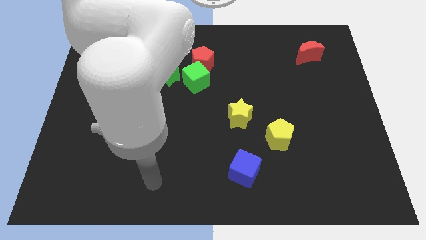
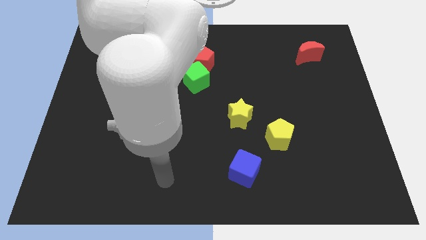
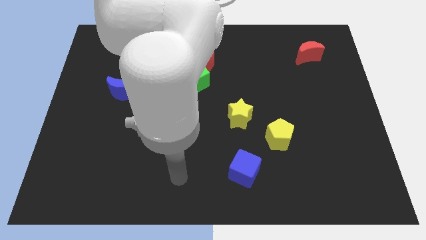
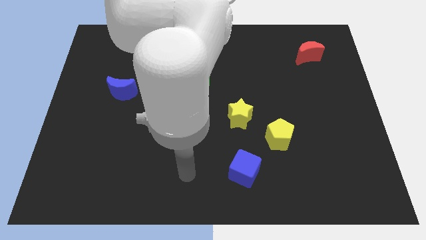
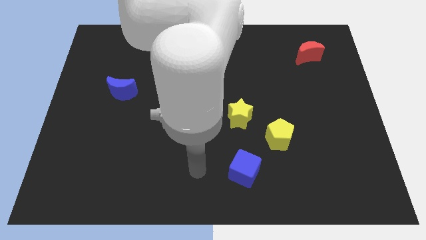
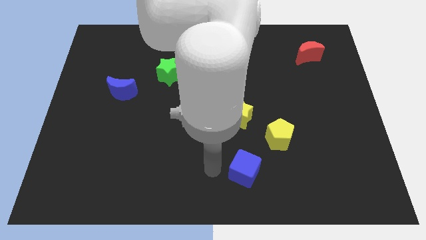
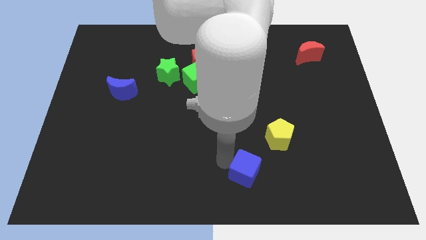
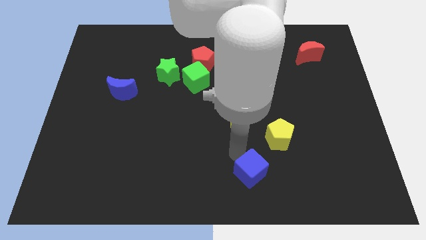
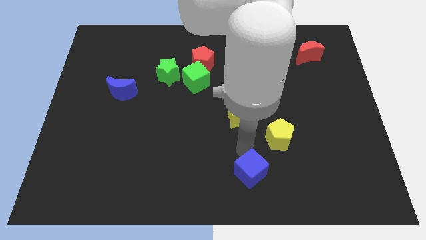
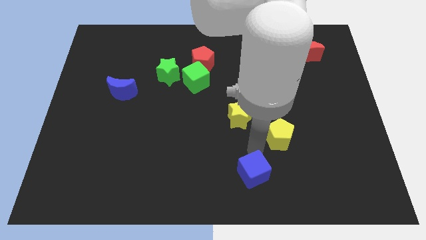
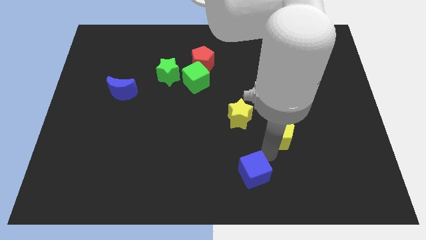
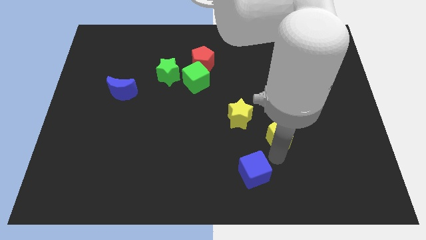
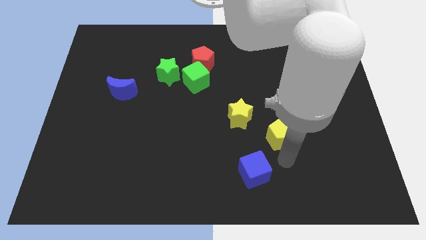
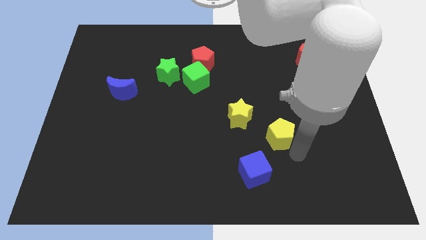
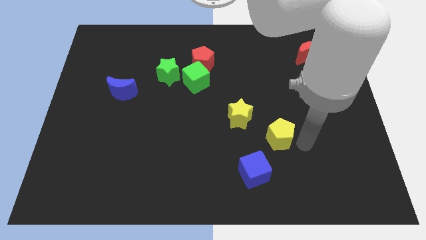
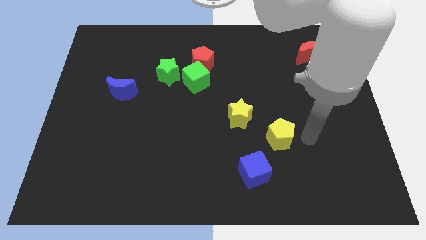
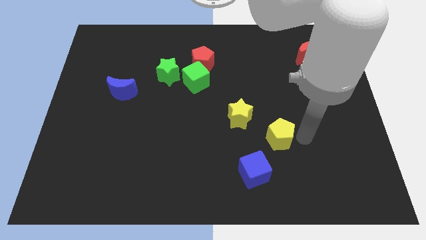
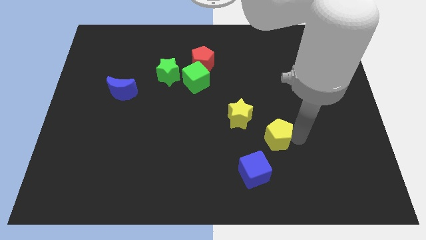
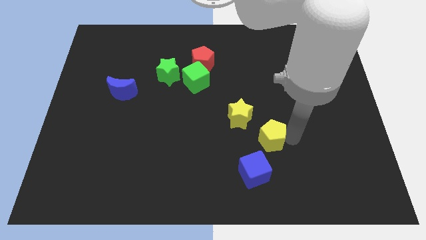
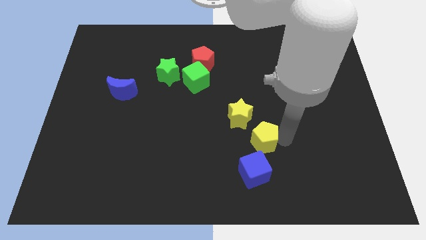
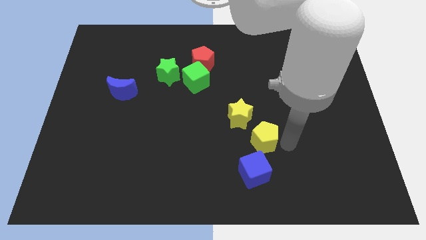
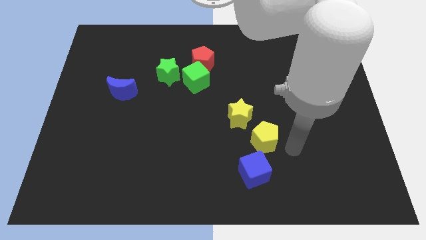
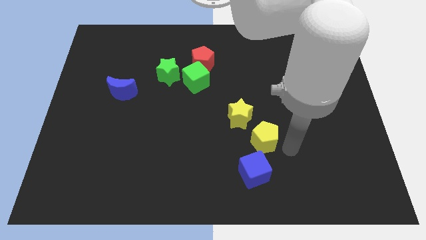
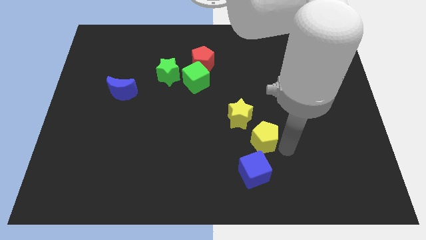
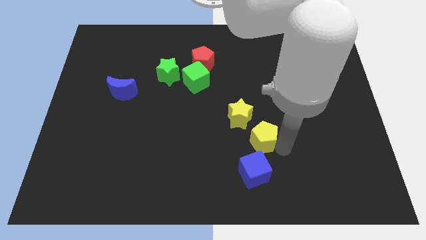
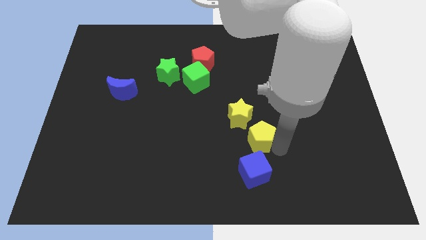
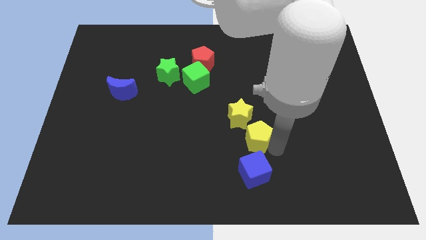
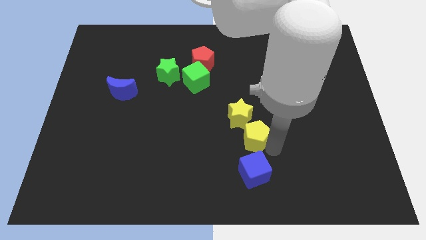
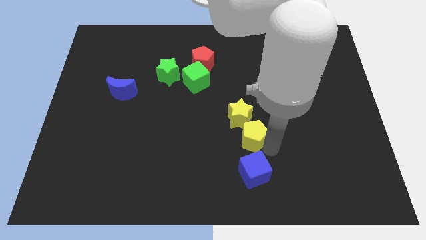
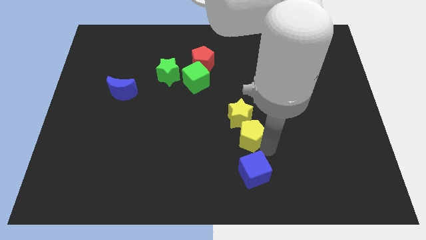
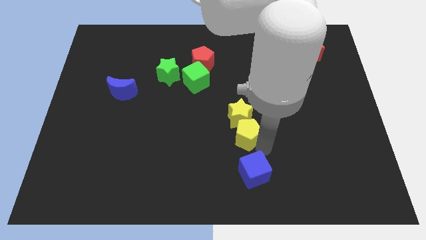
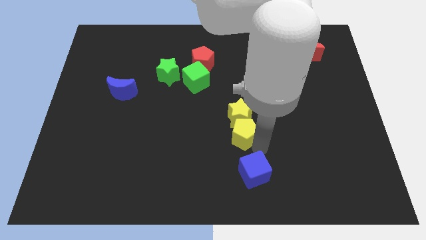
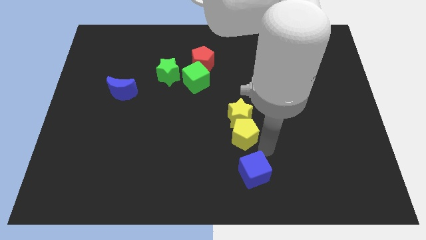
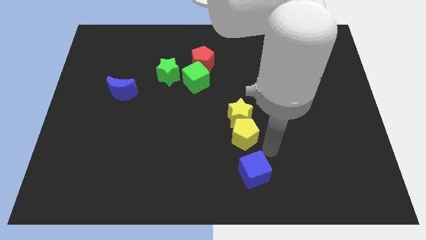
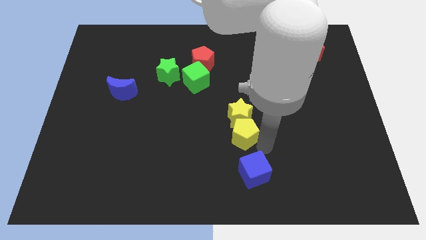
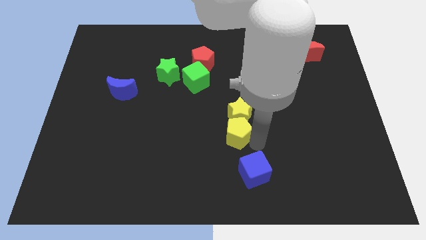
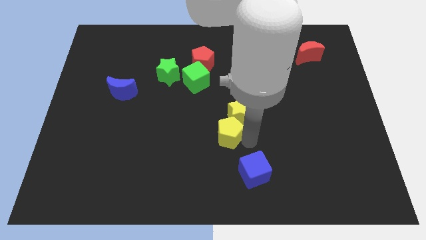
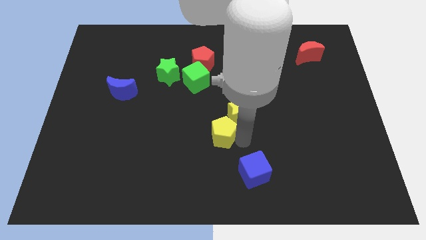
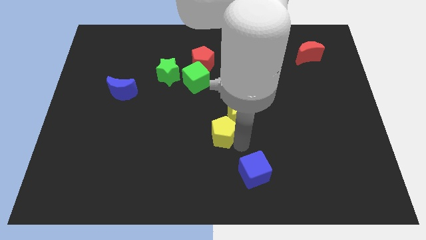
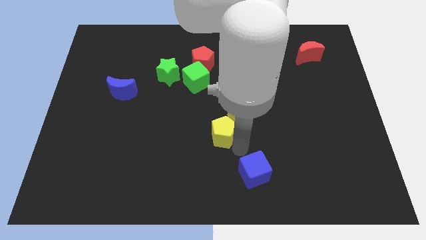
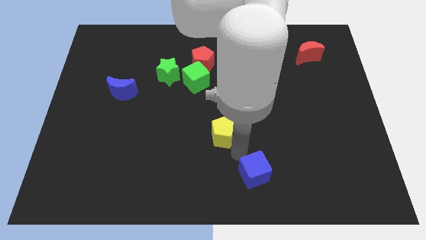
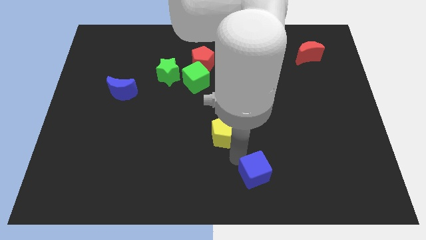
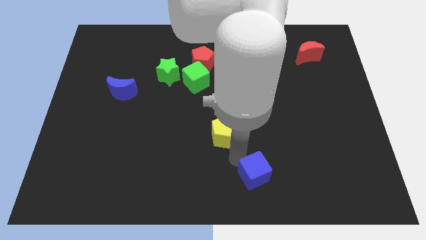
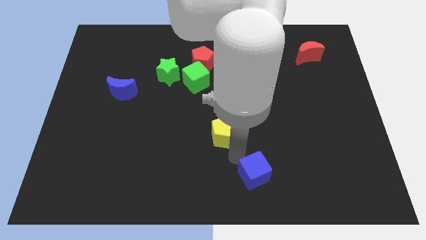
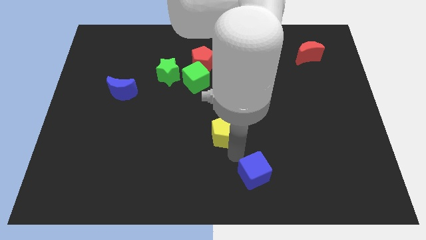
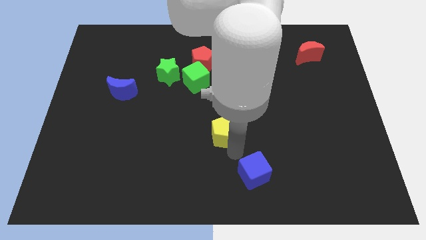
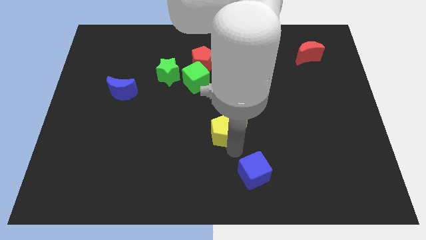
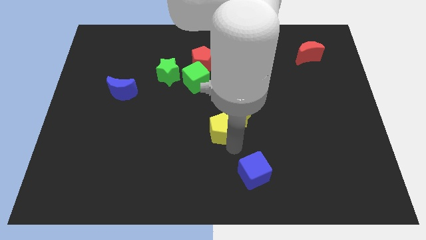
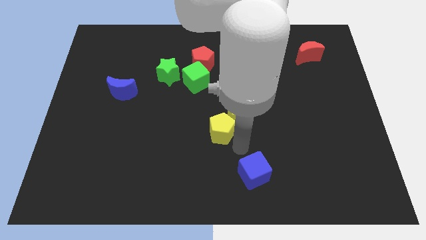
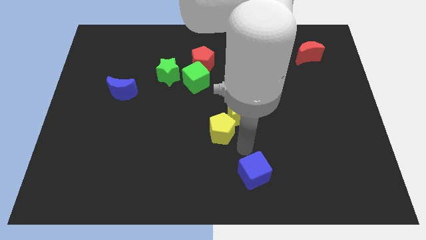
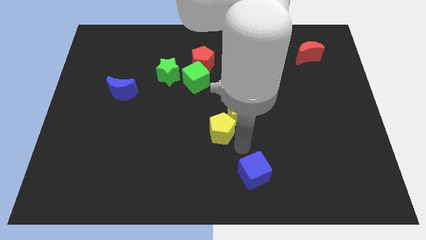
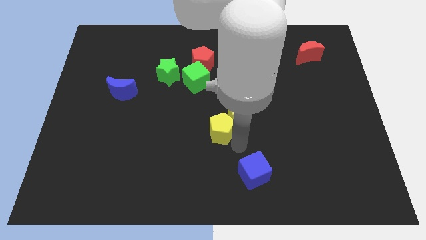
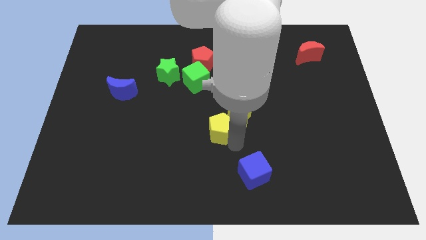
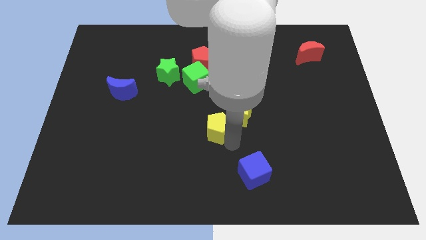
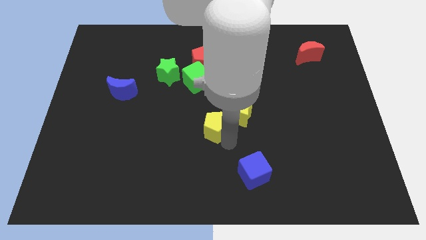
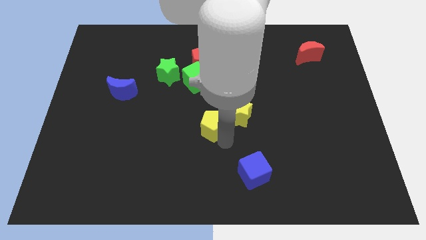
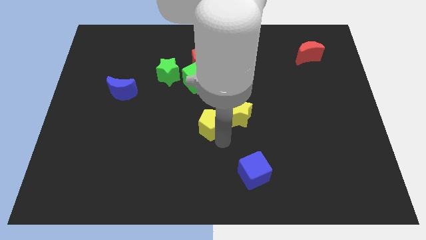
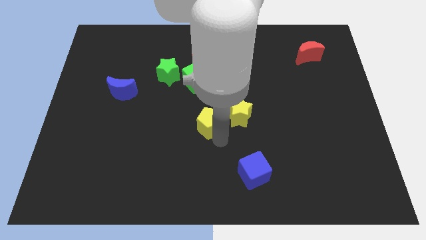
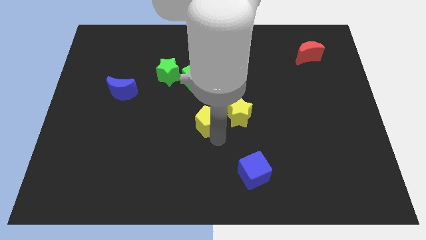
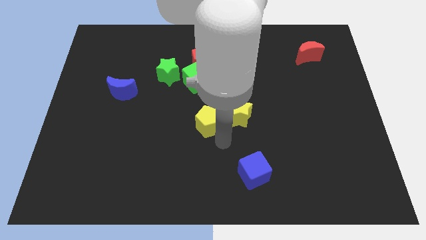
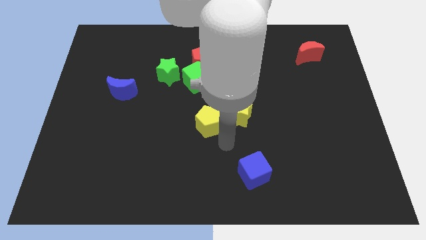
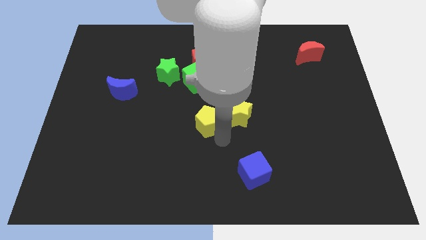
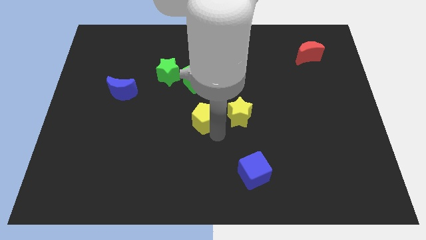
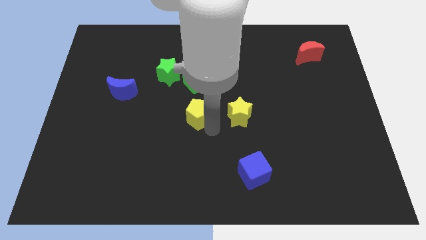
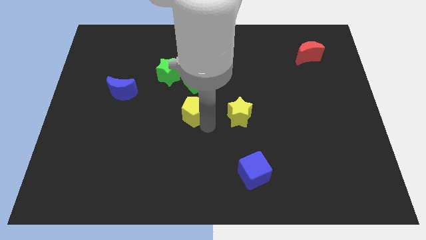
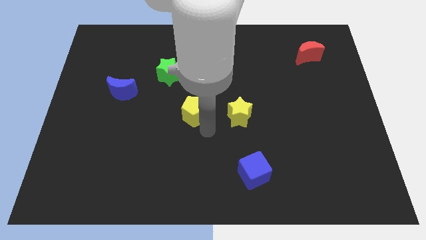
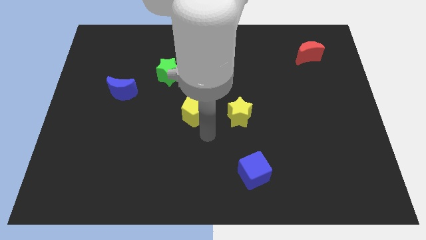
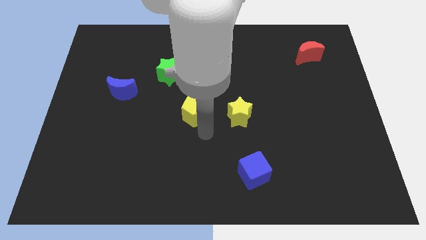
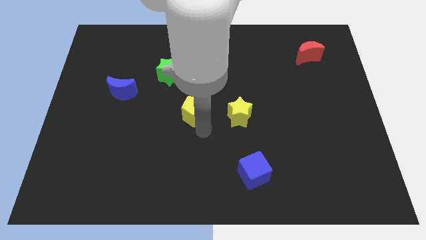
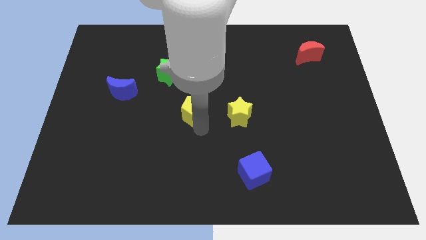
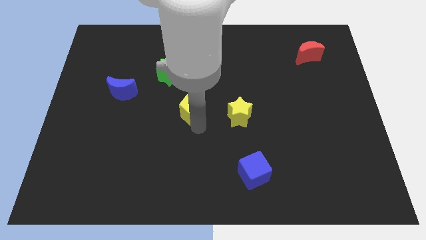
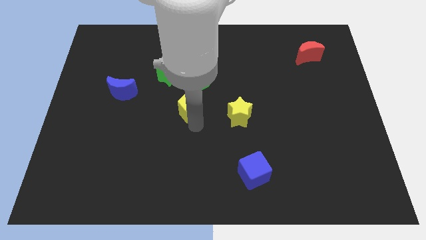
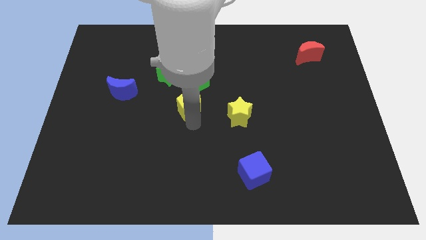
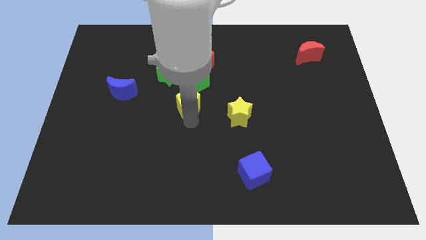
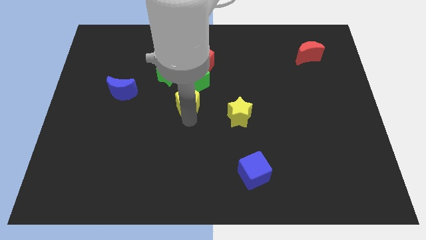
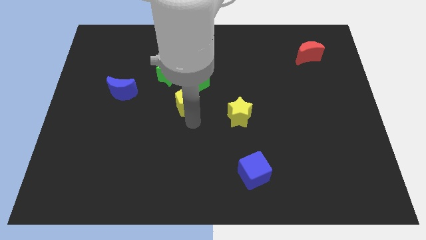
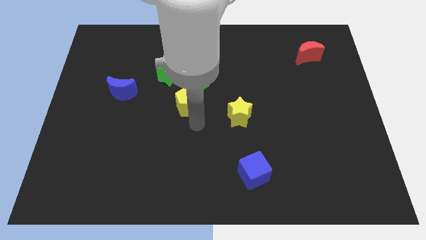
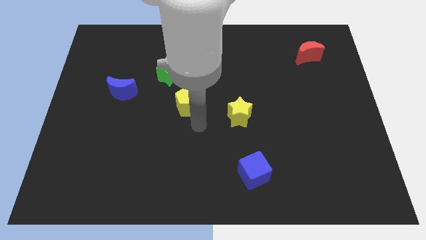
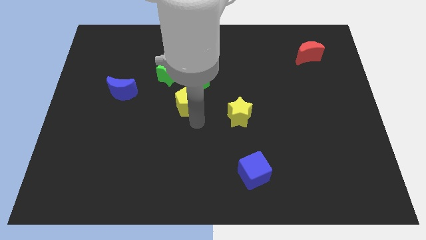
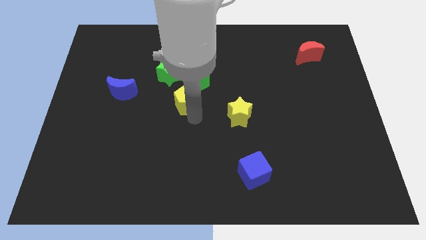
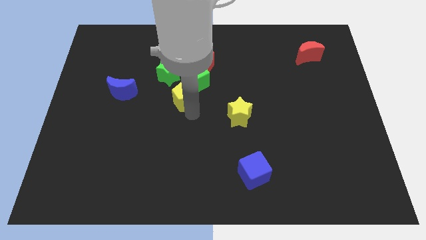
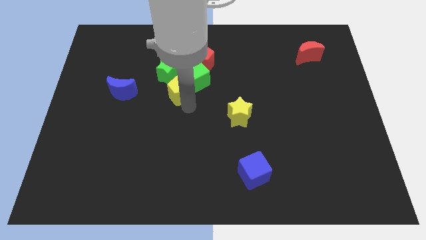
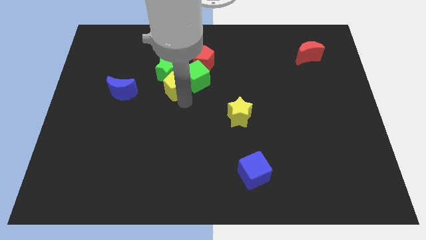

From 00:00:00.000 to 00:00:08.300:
put the yellow pentagon close to the green star
